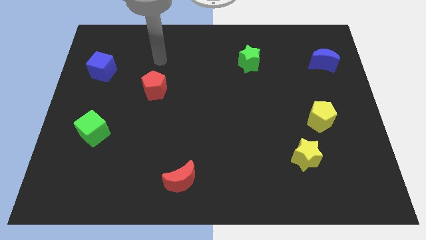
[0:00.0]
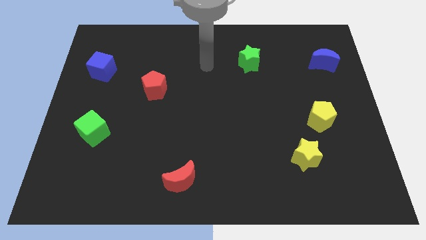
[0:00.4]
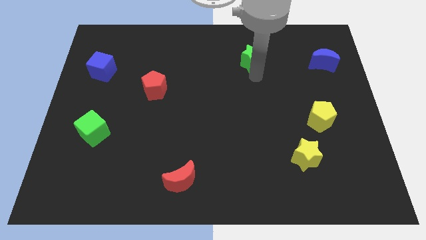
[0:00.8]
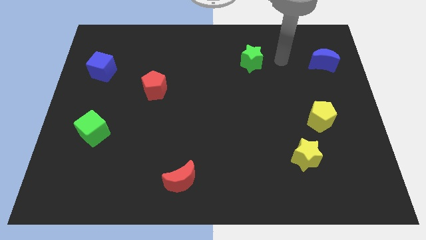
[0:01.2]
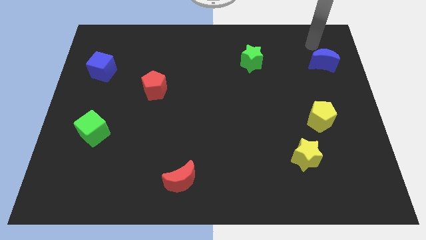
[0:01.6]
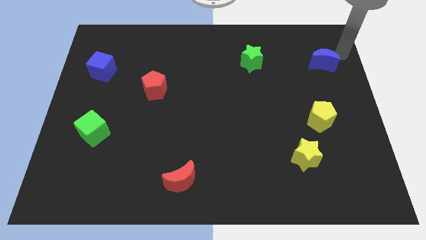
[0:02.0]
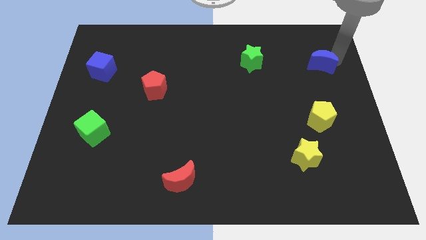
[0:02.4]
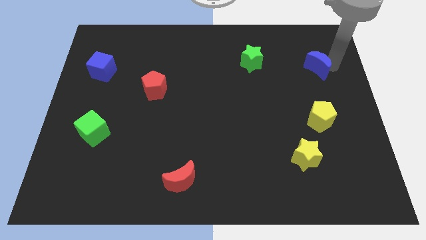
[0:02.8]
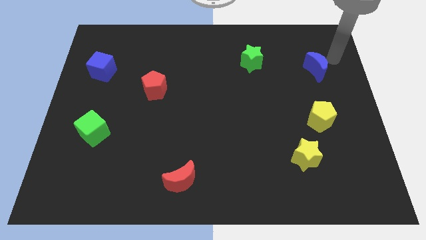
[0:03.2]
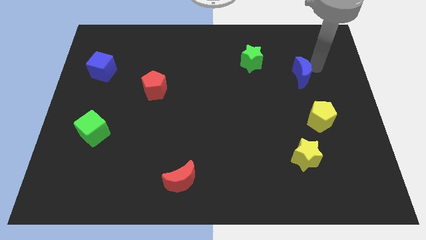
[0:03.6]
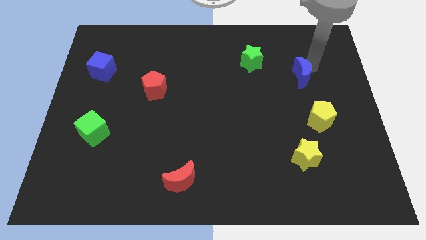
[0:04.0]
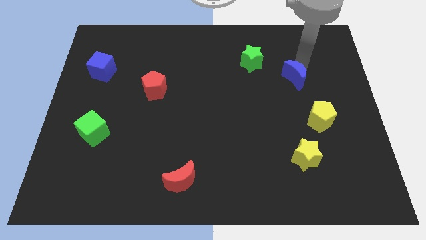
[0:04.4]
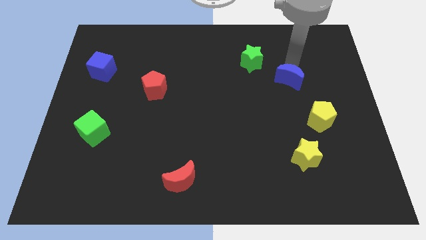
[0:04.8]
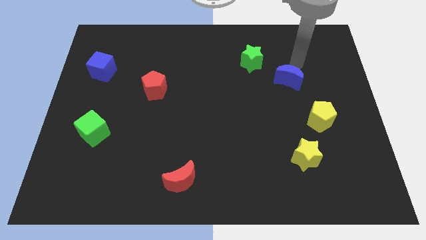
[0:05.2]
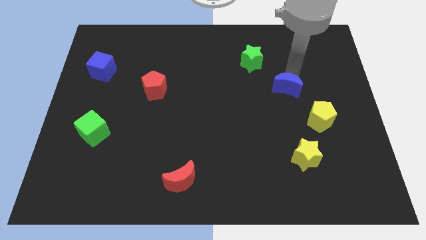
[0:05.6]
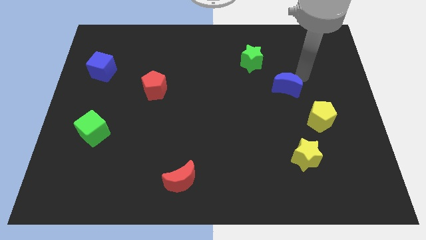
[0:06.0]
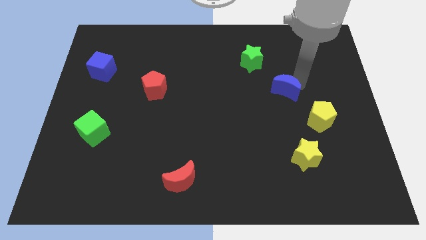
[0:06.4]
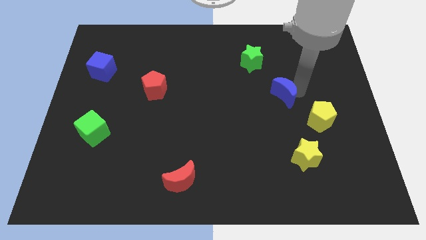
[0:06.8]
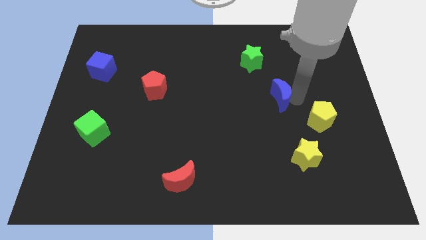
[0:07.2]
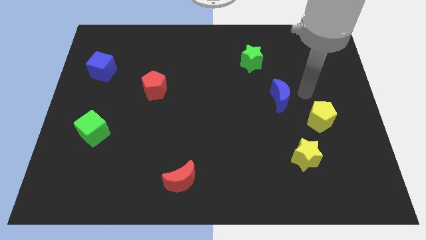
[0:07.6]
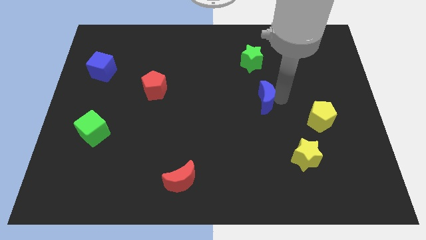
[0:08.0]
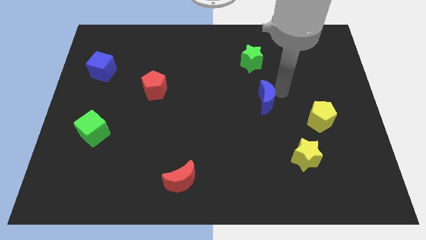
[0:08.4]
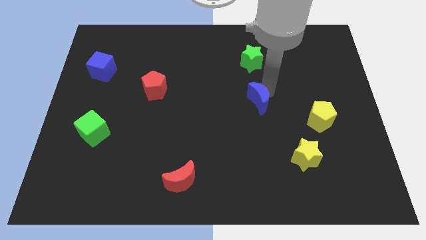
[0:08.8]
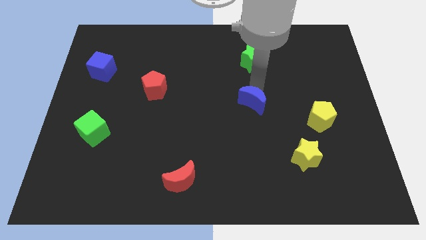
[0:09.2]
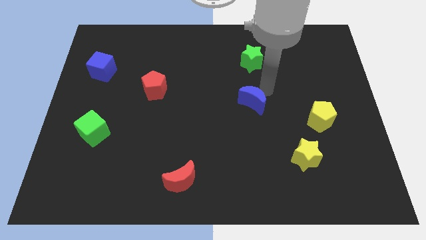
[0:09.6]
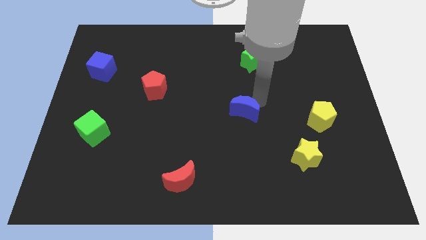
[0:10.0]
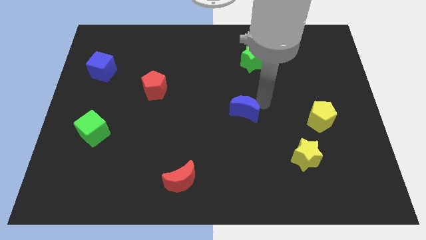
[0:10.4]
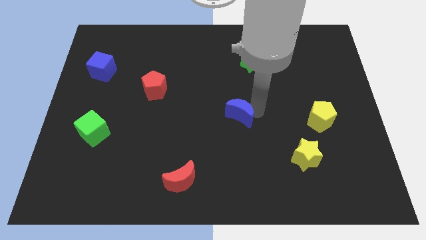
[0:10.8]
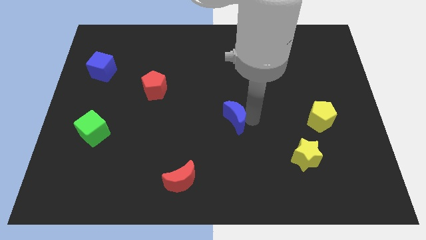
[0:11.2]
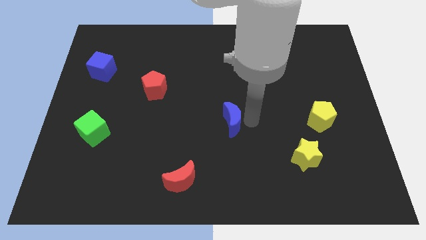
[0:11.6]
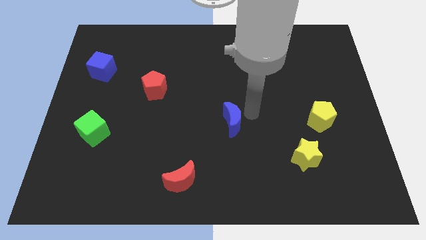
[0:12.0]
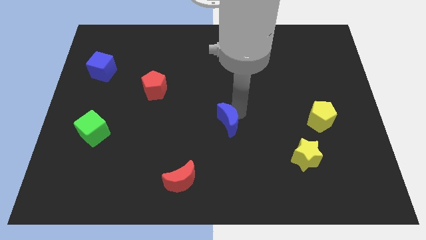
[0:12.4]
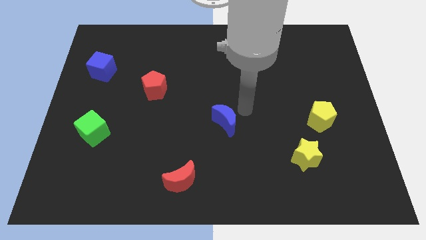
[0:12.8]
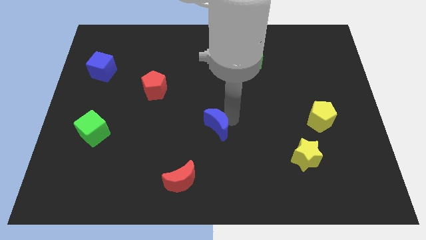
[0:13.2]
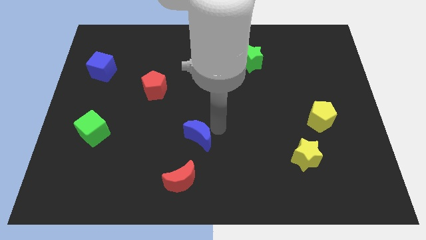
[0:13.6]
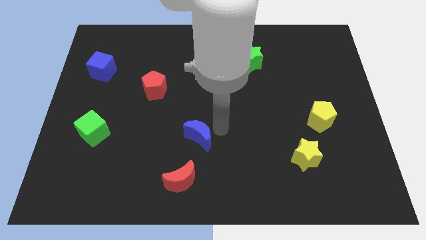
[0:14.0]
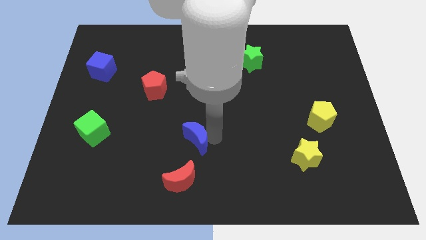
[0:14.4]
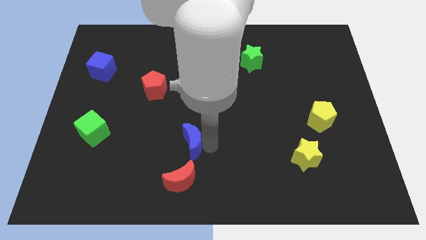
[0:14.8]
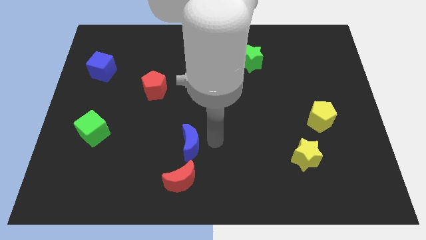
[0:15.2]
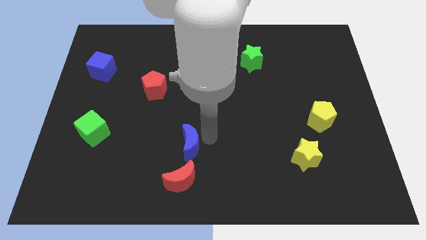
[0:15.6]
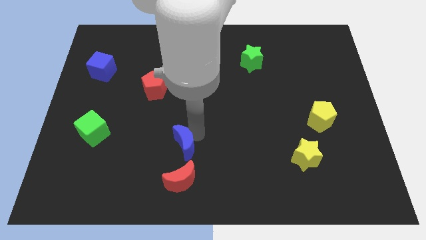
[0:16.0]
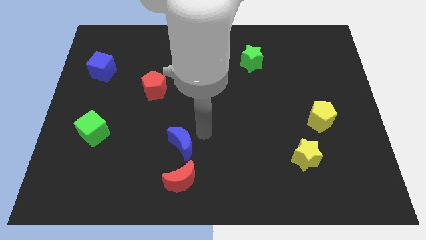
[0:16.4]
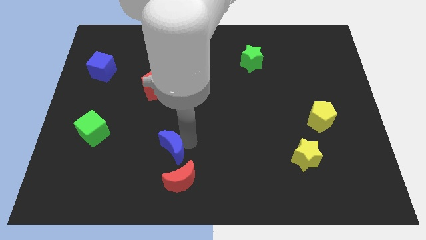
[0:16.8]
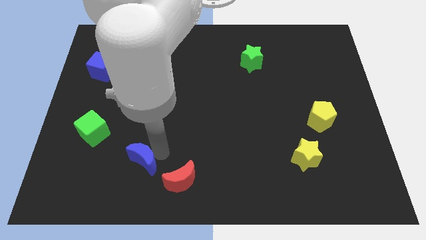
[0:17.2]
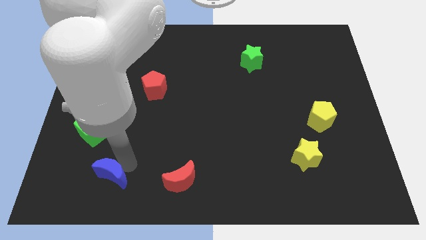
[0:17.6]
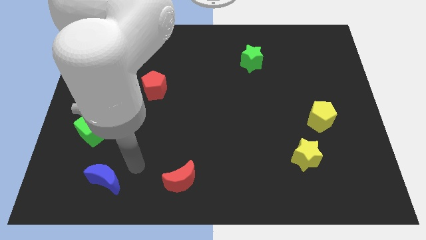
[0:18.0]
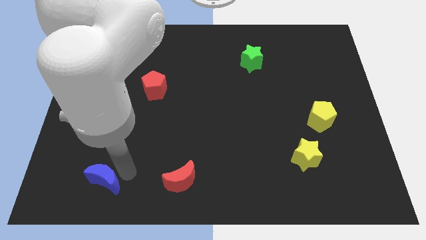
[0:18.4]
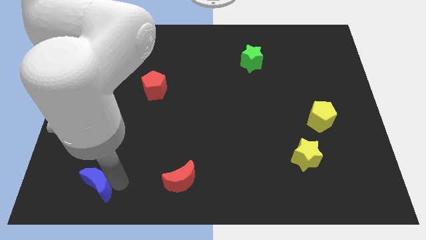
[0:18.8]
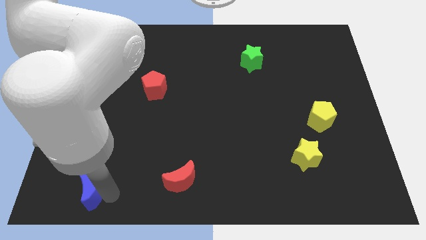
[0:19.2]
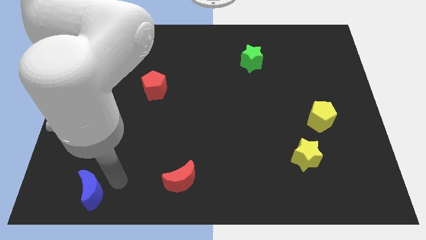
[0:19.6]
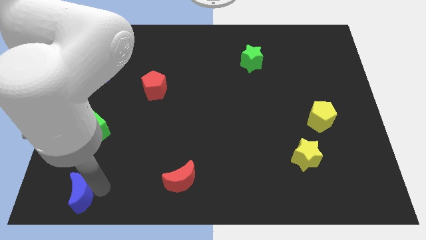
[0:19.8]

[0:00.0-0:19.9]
push the blue moon to the bottom left

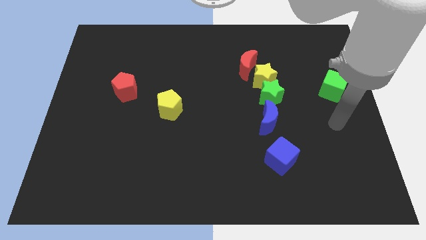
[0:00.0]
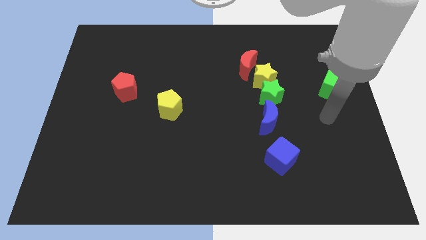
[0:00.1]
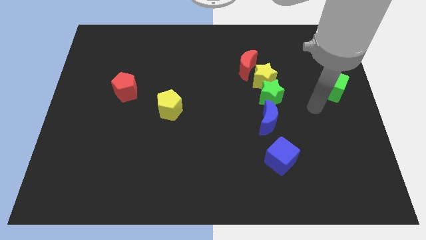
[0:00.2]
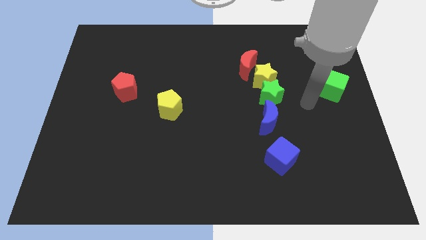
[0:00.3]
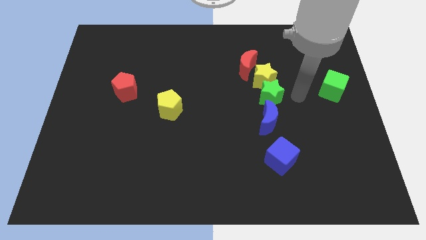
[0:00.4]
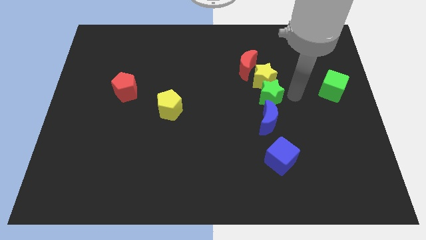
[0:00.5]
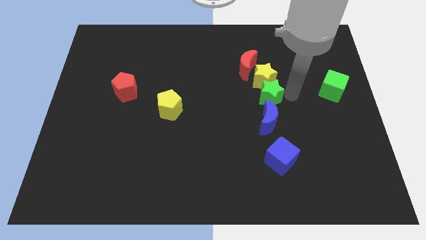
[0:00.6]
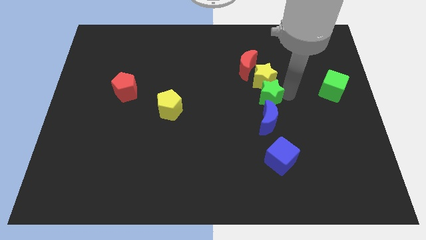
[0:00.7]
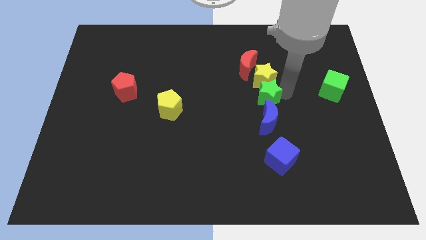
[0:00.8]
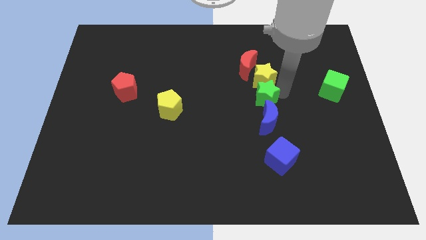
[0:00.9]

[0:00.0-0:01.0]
move the green star to the center of the board
